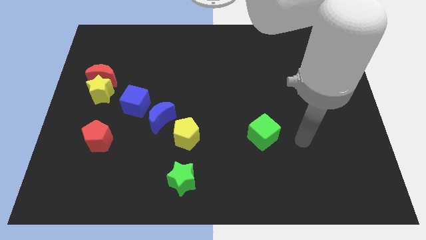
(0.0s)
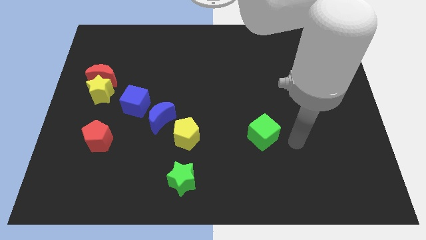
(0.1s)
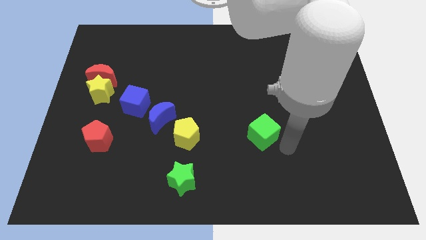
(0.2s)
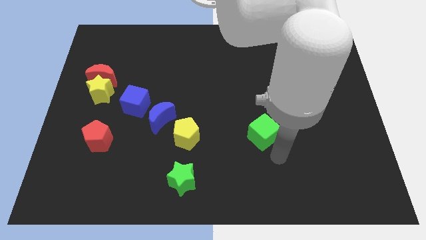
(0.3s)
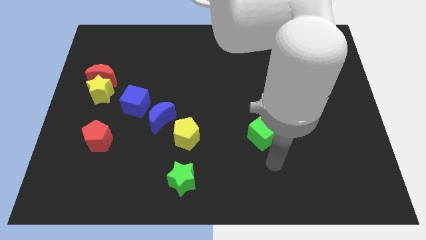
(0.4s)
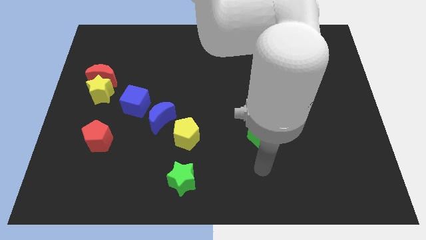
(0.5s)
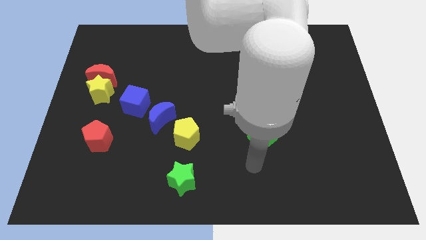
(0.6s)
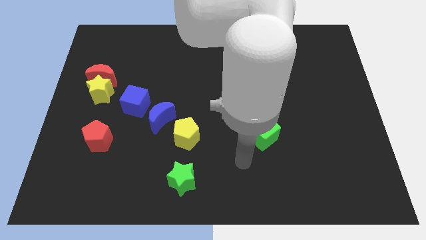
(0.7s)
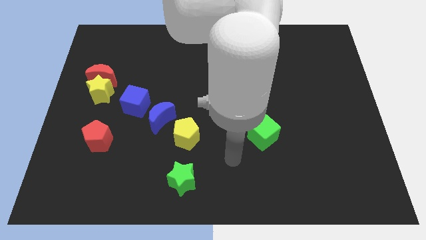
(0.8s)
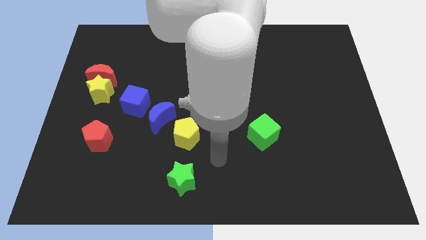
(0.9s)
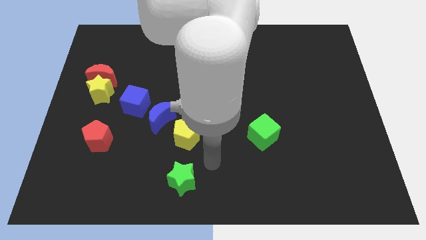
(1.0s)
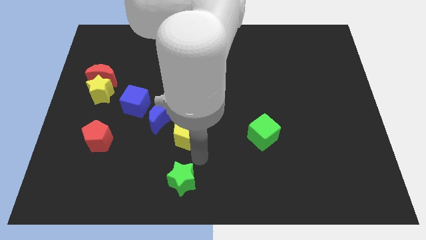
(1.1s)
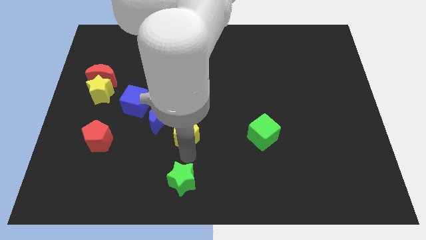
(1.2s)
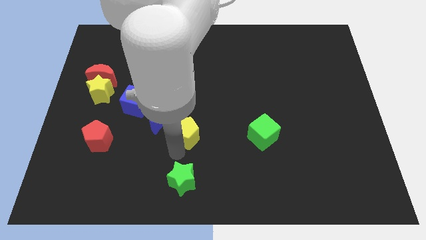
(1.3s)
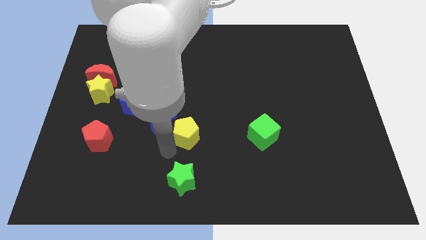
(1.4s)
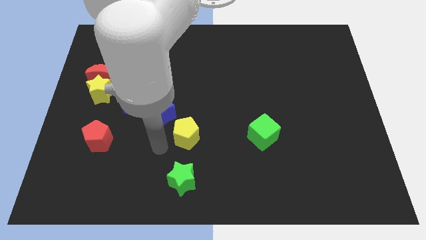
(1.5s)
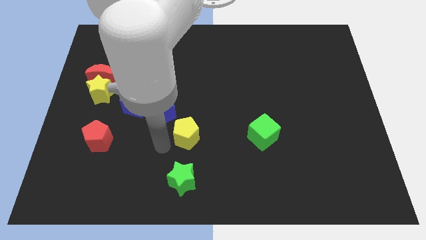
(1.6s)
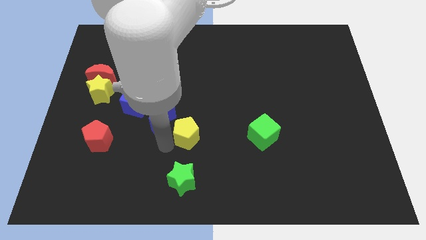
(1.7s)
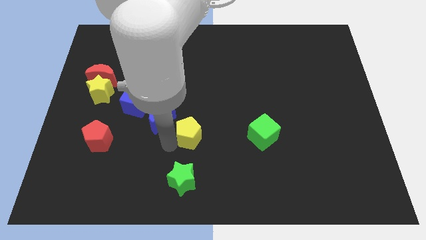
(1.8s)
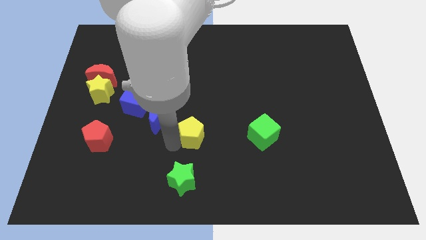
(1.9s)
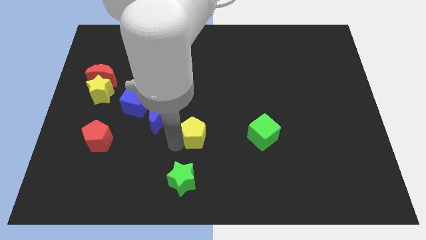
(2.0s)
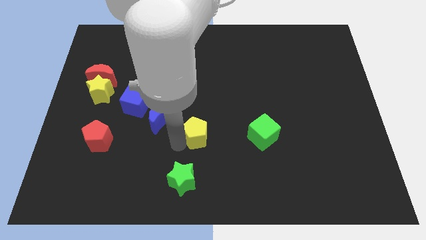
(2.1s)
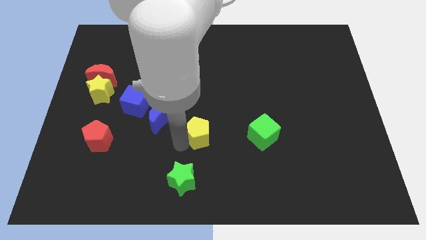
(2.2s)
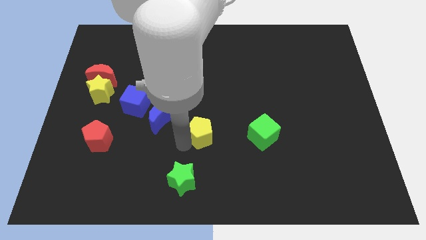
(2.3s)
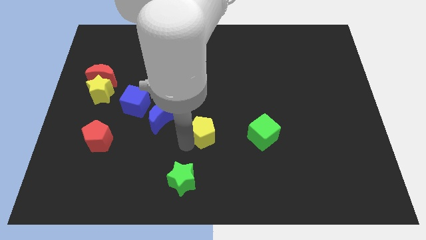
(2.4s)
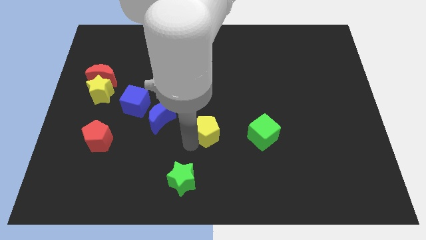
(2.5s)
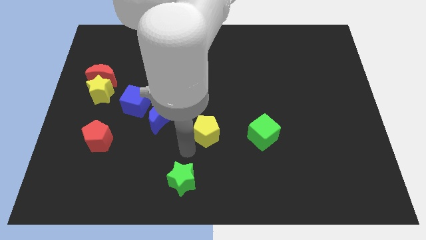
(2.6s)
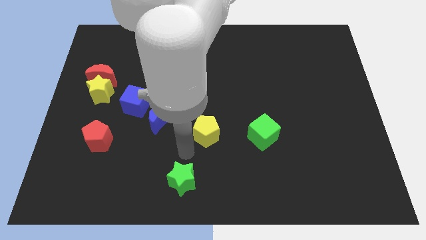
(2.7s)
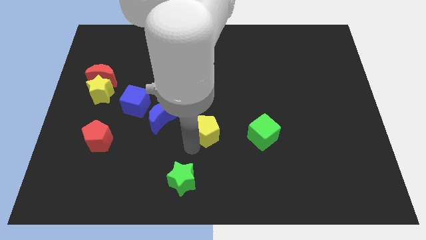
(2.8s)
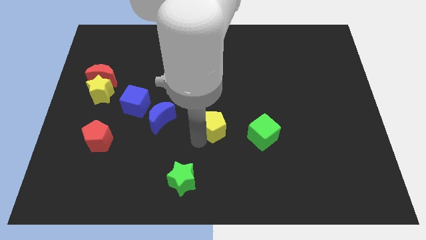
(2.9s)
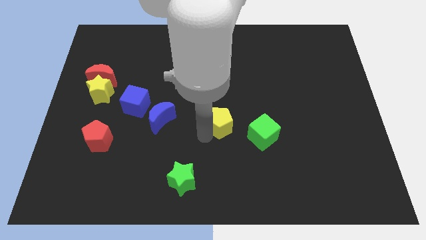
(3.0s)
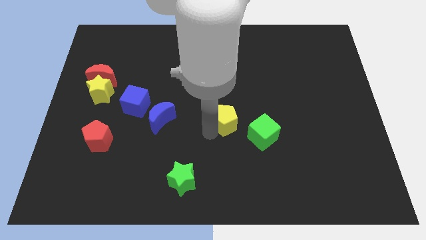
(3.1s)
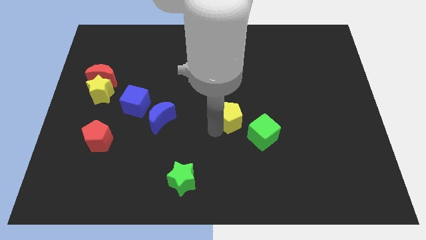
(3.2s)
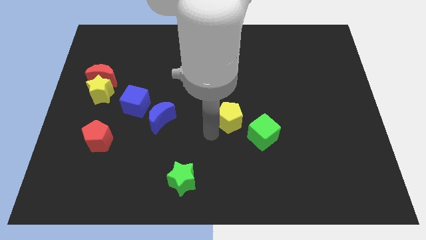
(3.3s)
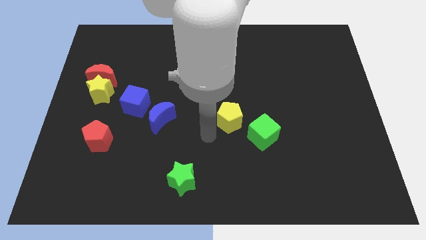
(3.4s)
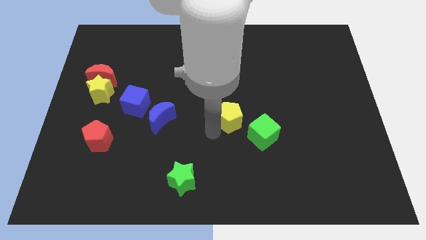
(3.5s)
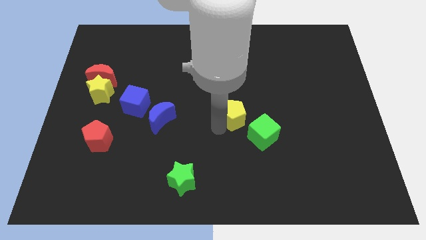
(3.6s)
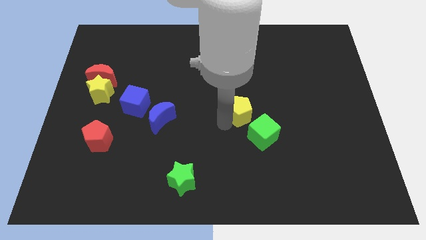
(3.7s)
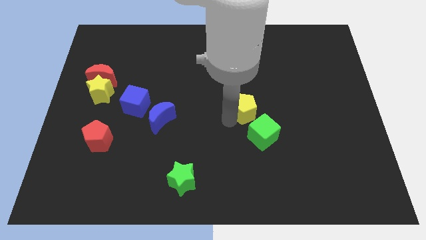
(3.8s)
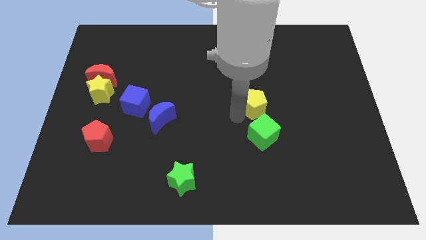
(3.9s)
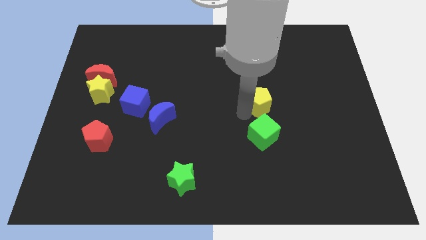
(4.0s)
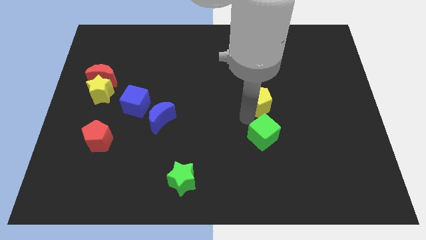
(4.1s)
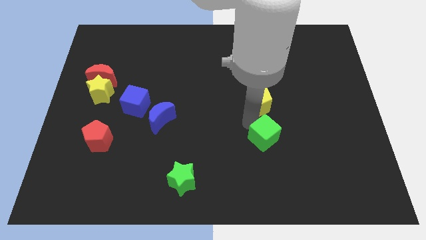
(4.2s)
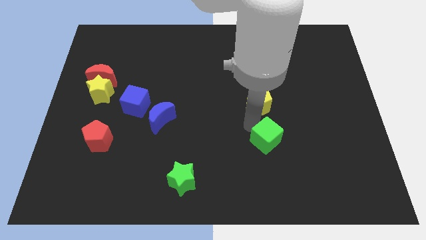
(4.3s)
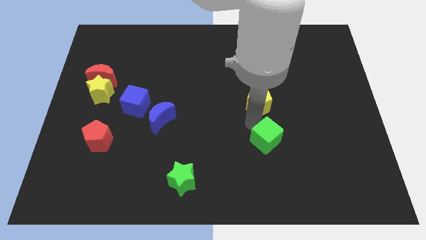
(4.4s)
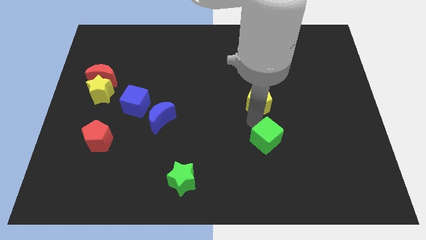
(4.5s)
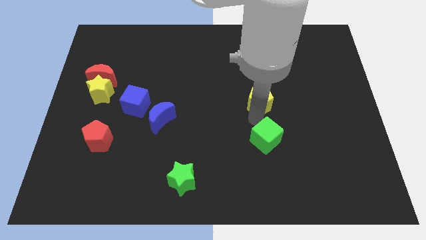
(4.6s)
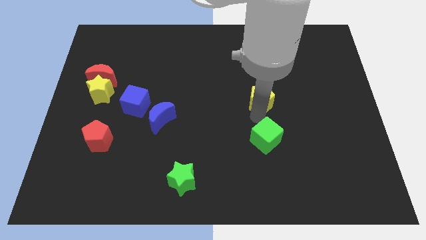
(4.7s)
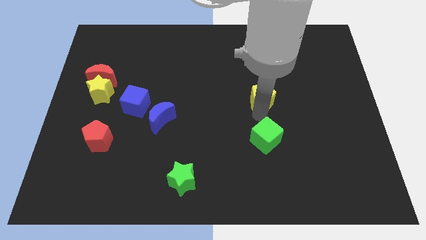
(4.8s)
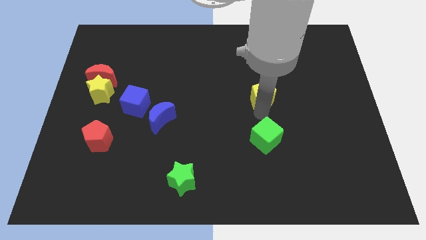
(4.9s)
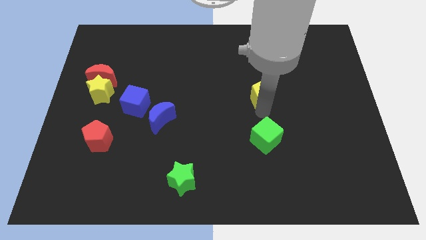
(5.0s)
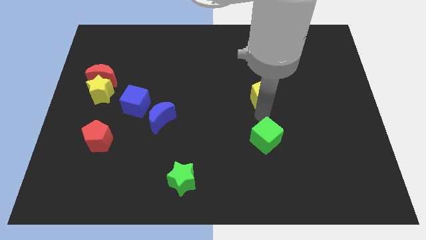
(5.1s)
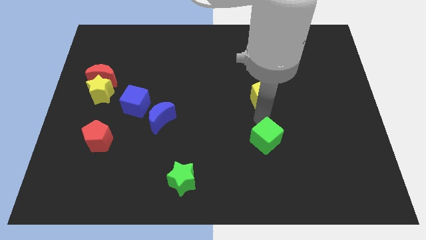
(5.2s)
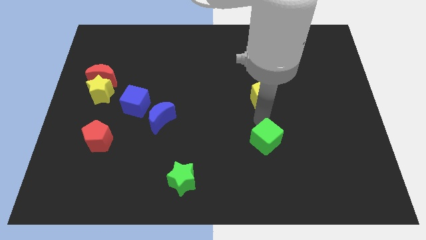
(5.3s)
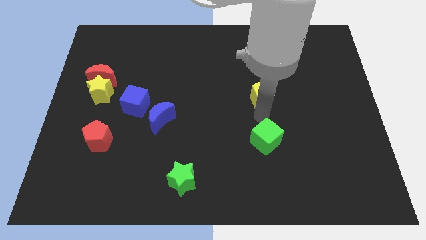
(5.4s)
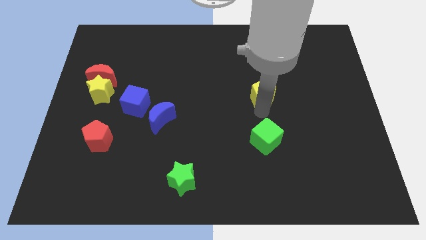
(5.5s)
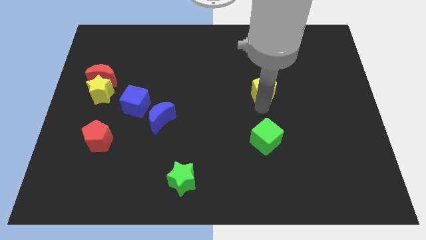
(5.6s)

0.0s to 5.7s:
slide the yellow pentagon upwards and then right

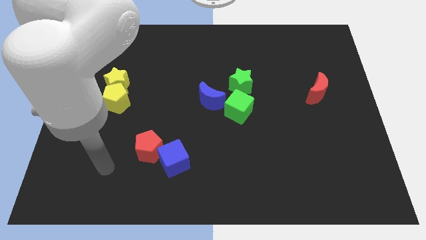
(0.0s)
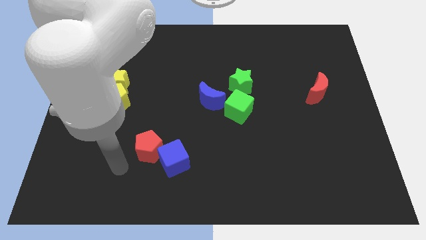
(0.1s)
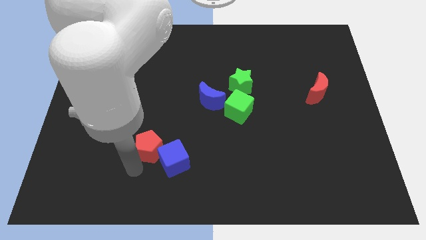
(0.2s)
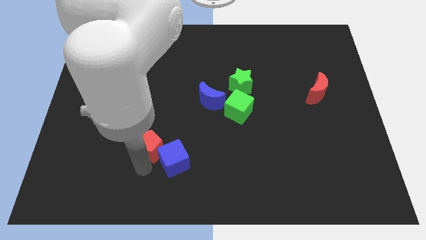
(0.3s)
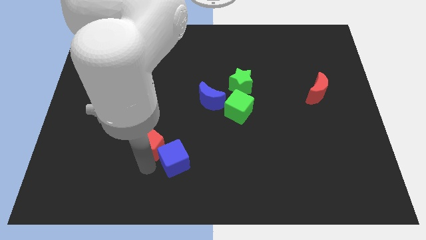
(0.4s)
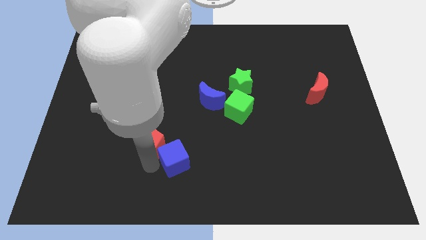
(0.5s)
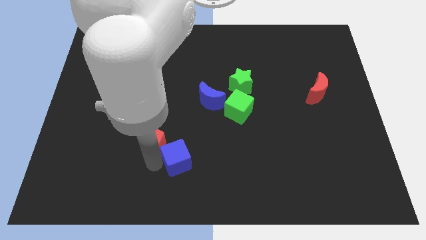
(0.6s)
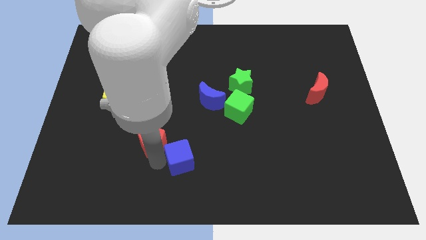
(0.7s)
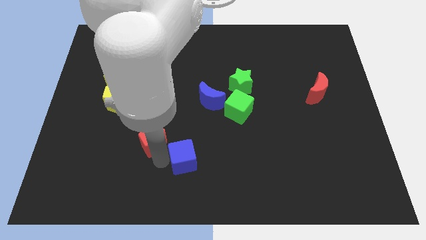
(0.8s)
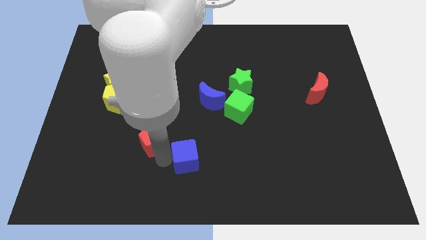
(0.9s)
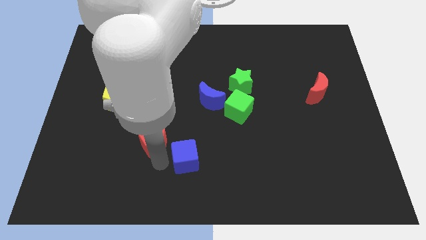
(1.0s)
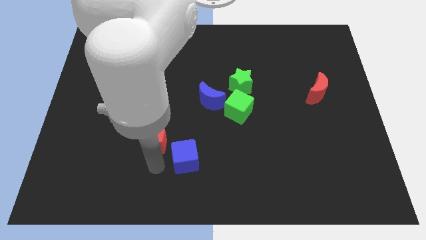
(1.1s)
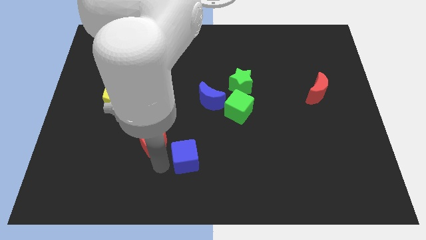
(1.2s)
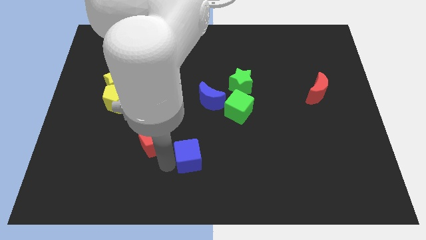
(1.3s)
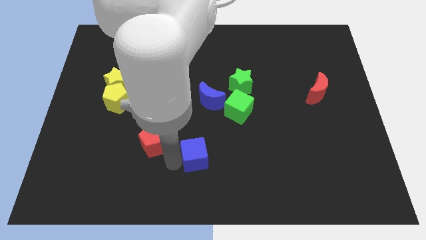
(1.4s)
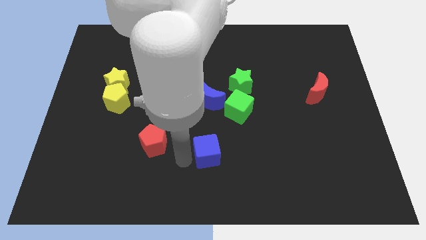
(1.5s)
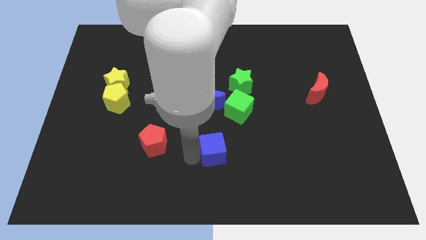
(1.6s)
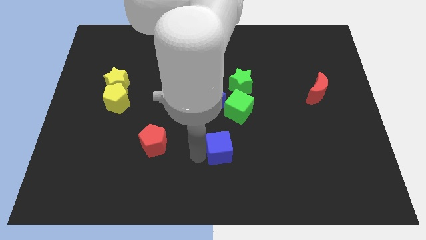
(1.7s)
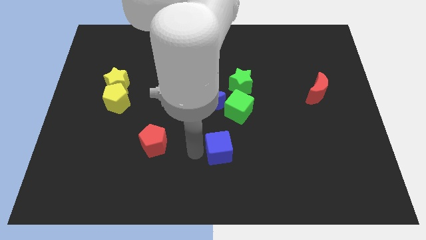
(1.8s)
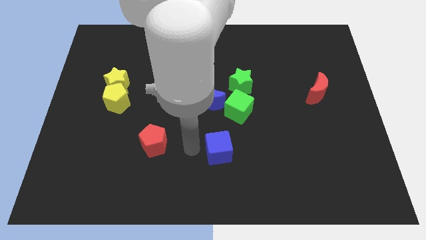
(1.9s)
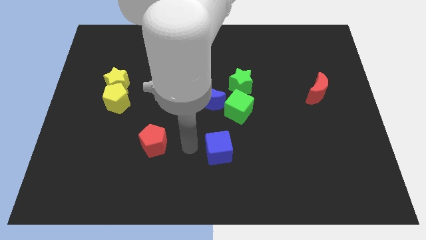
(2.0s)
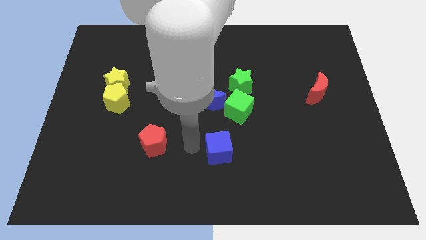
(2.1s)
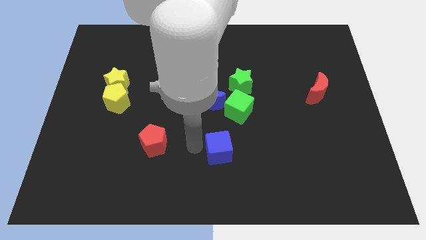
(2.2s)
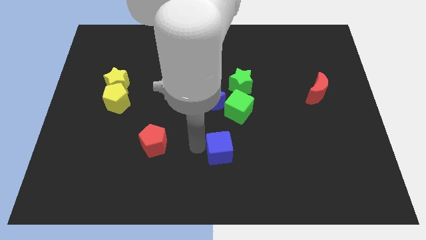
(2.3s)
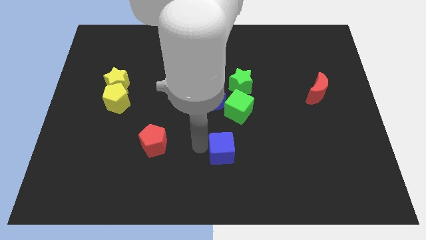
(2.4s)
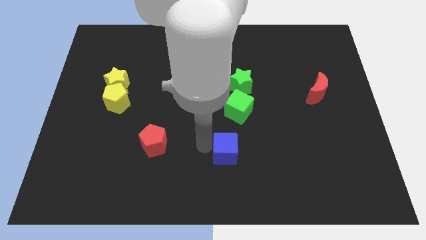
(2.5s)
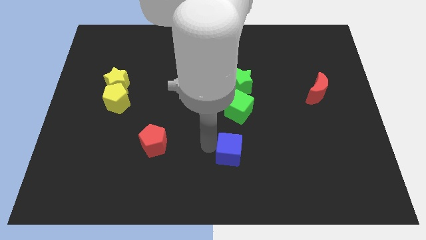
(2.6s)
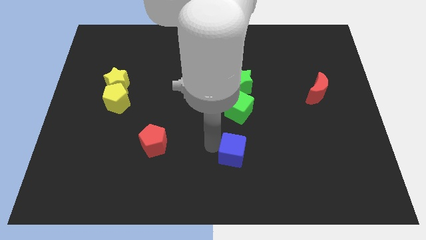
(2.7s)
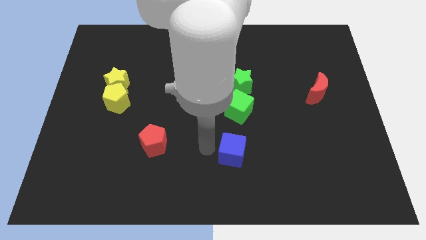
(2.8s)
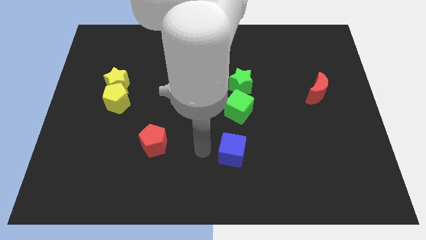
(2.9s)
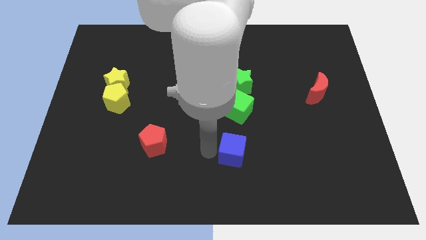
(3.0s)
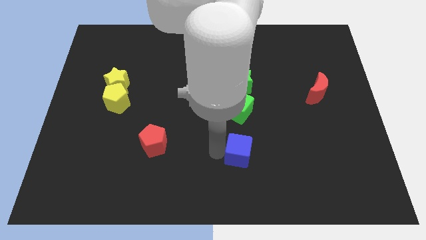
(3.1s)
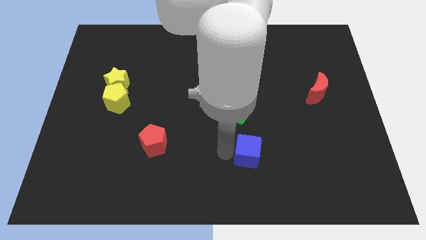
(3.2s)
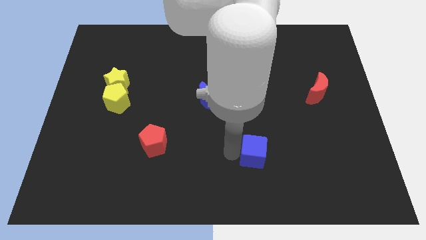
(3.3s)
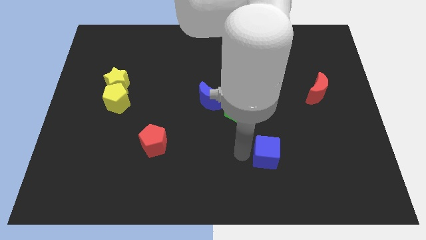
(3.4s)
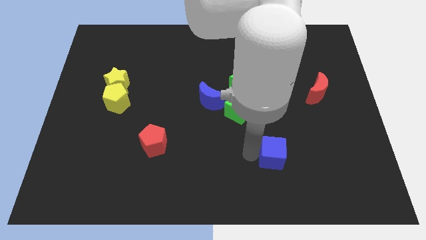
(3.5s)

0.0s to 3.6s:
move the blue cube right
